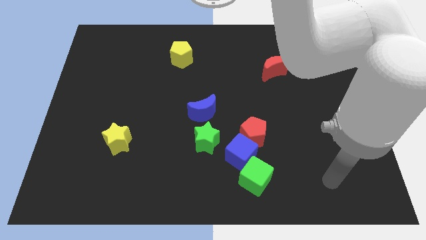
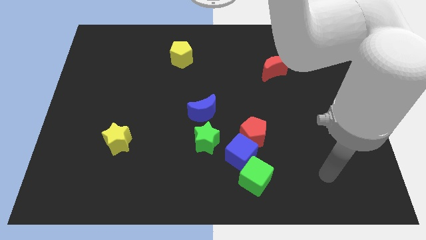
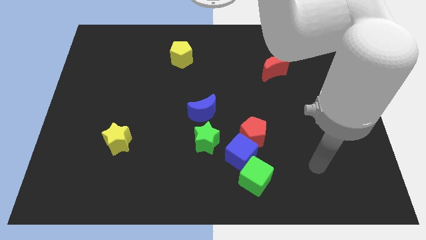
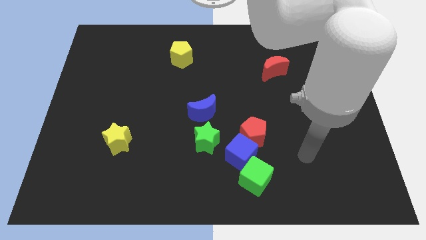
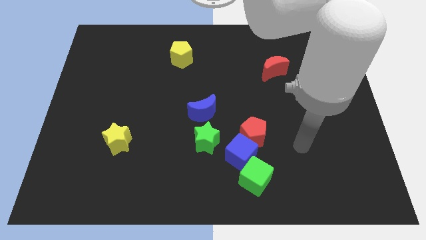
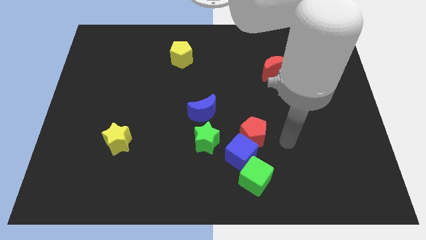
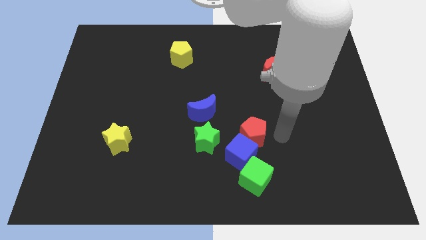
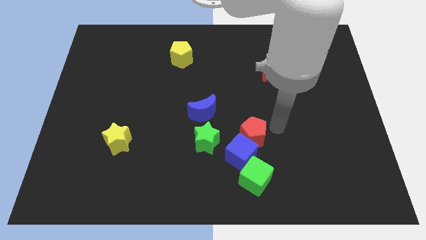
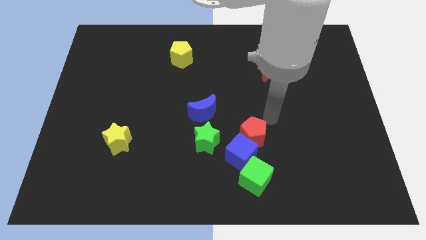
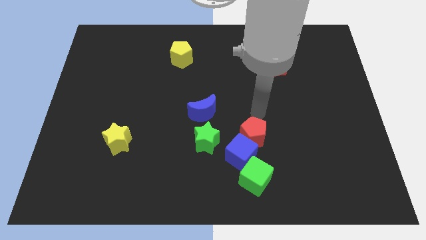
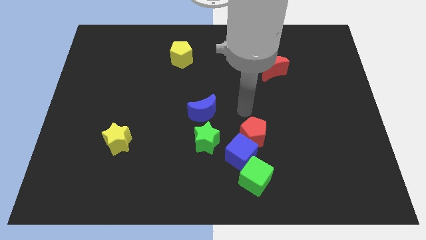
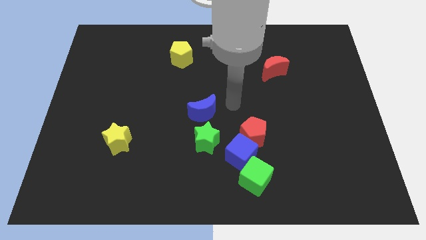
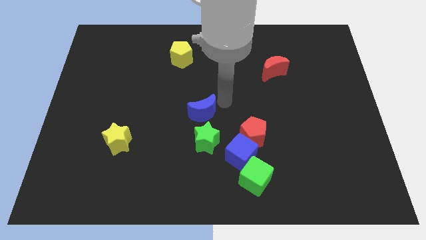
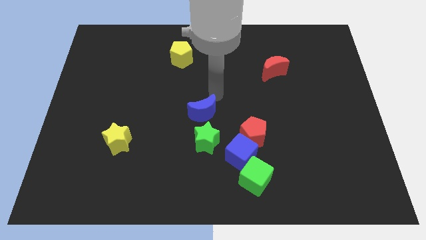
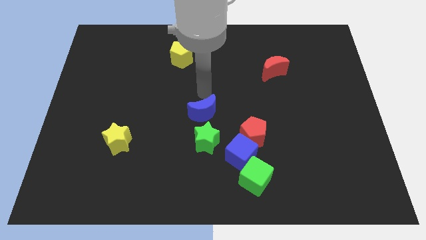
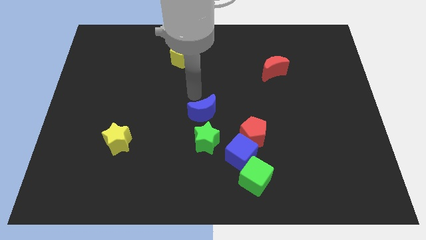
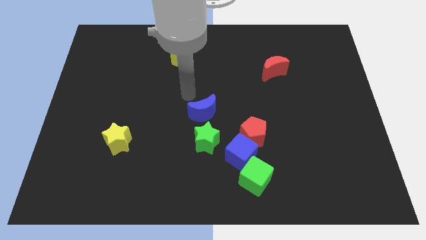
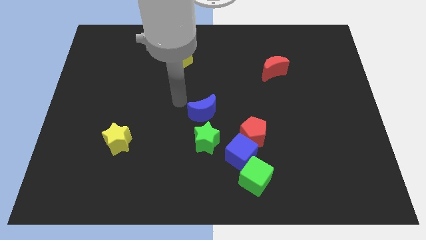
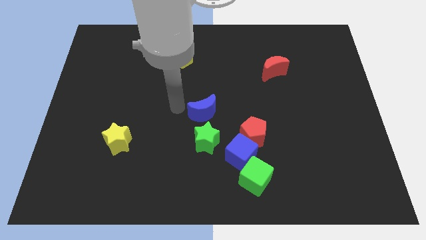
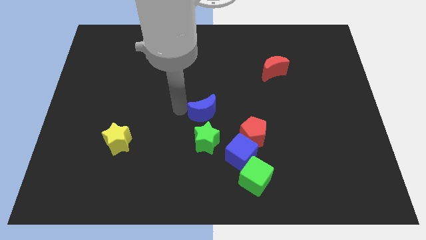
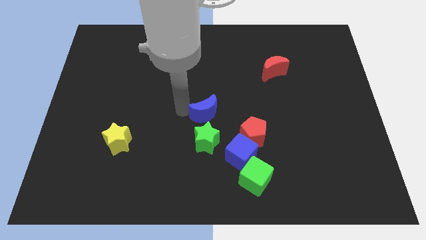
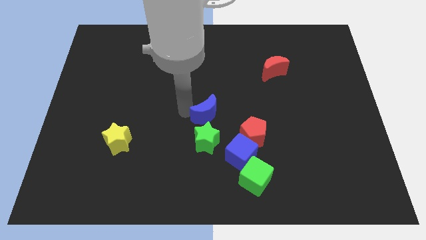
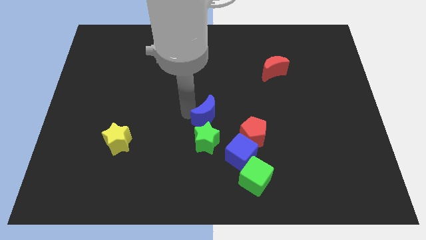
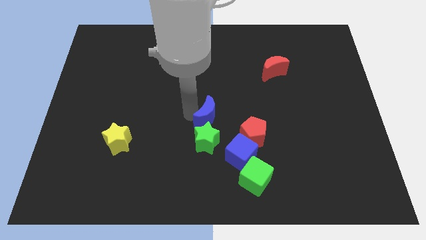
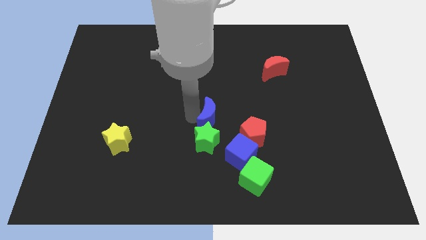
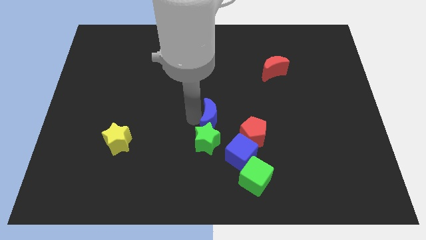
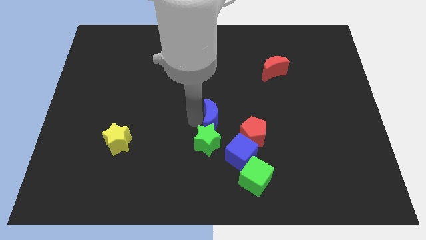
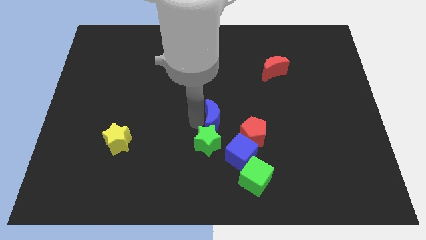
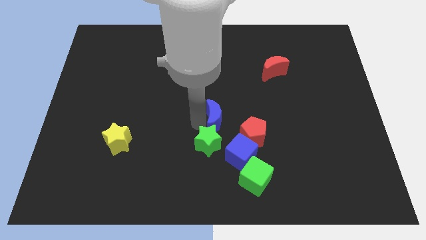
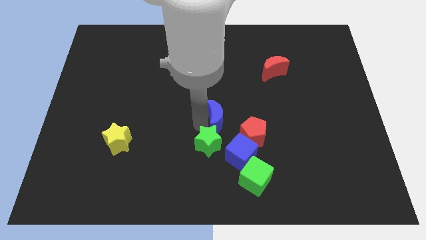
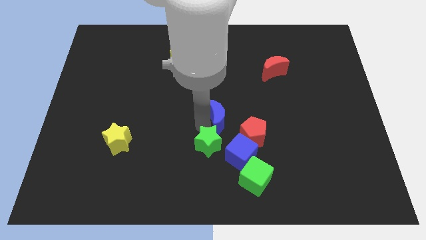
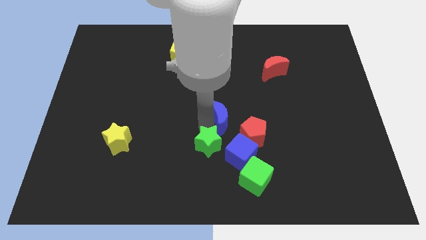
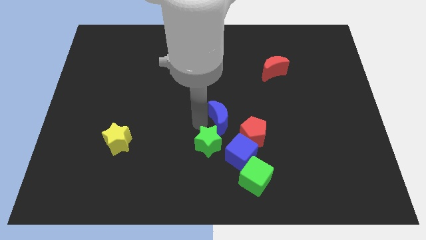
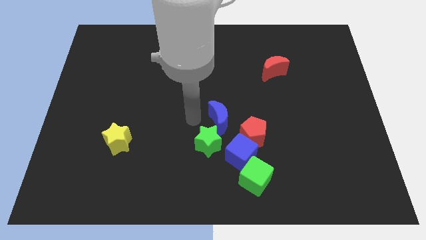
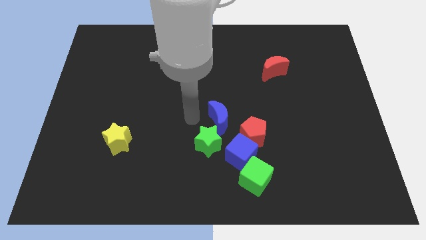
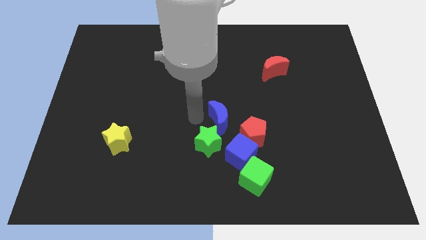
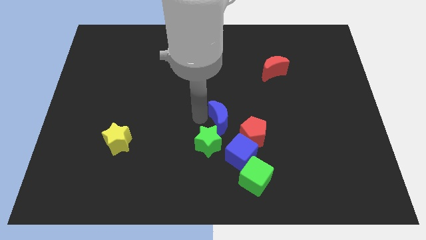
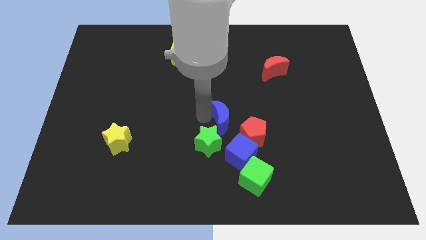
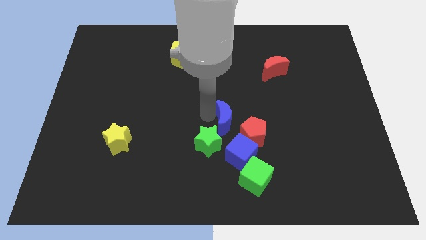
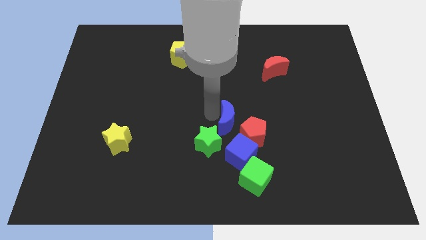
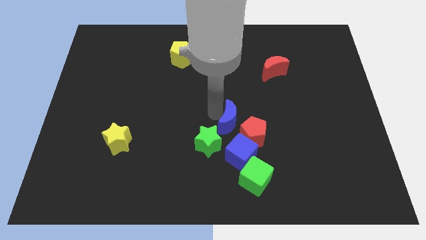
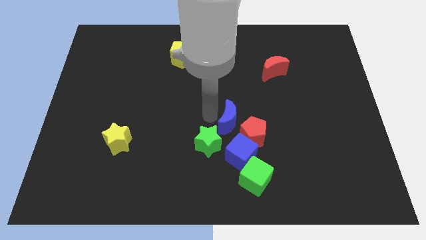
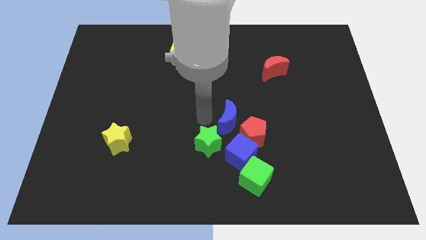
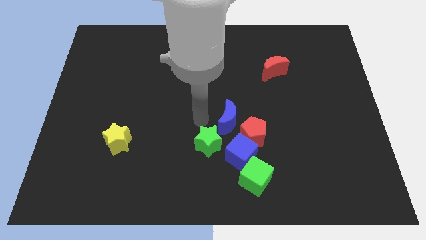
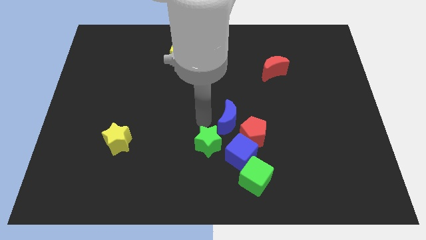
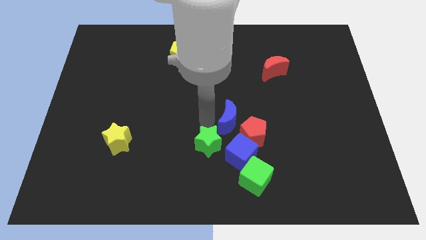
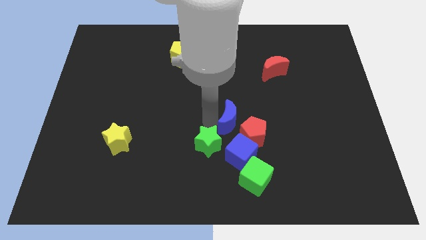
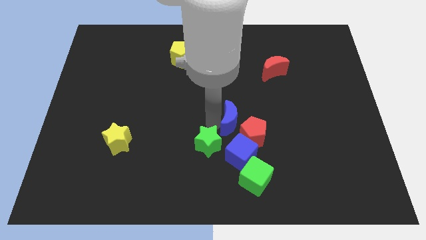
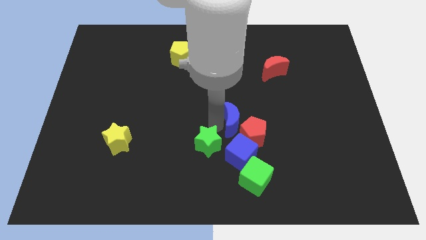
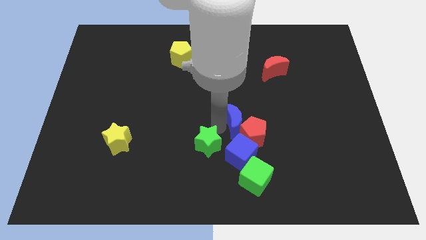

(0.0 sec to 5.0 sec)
push the blue moon a bit downwards and then to the right

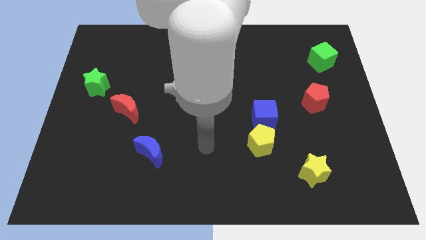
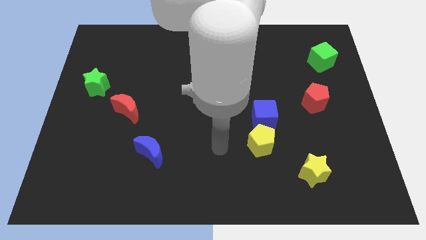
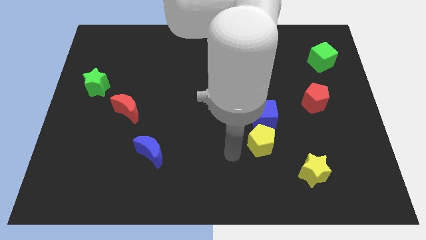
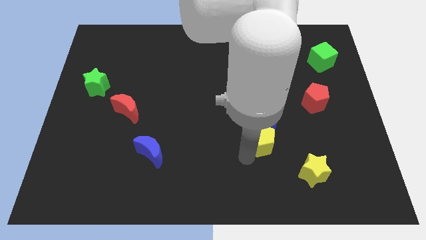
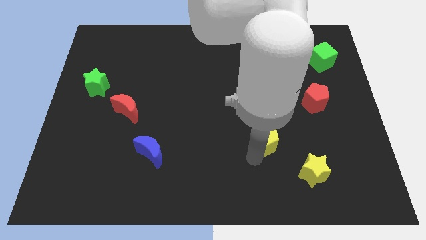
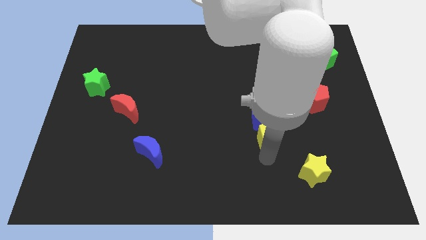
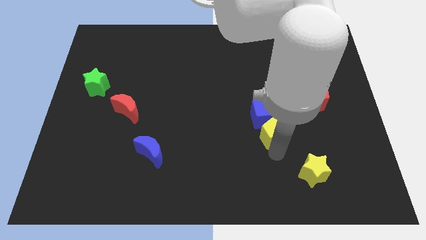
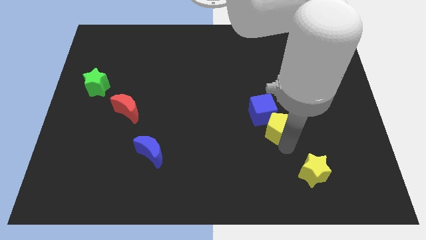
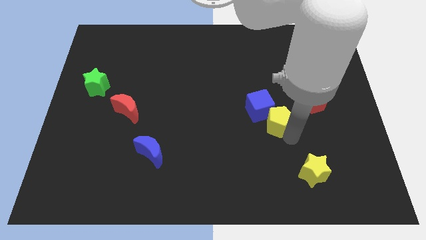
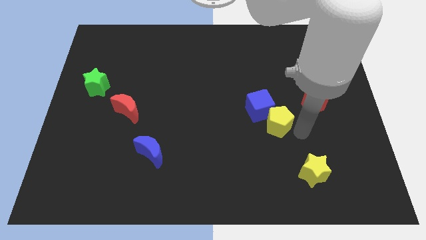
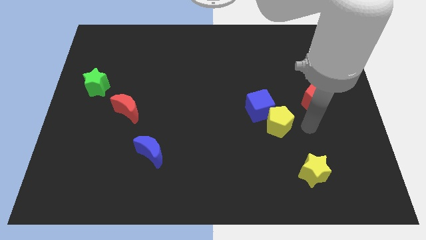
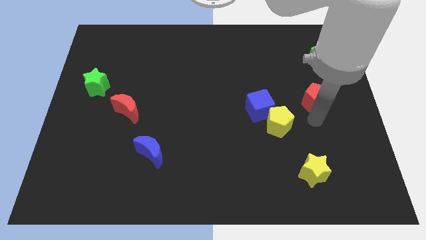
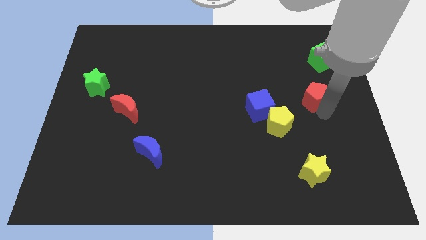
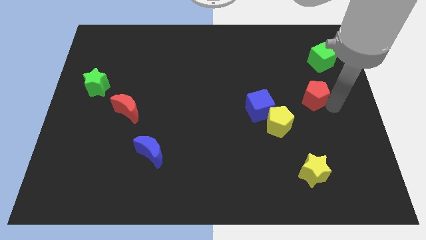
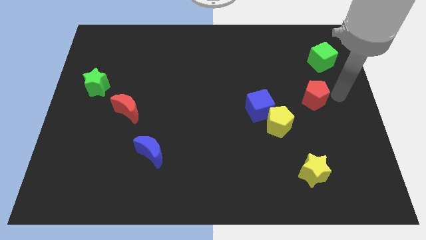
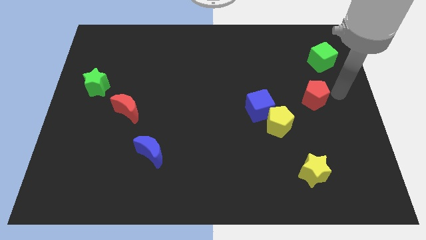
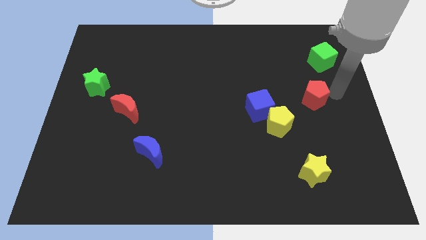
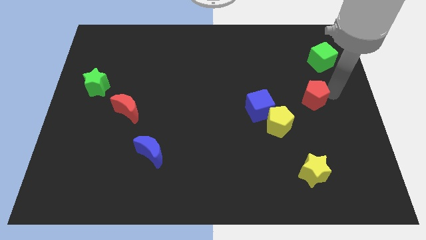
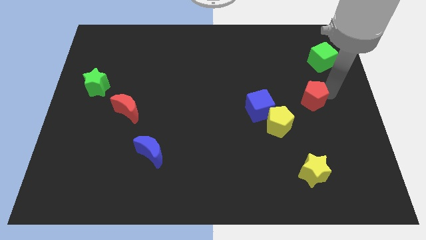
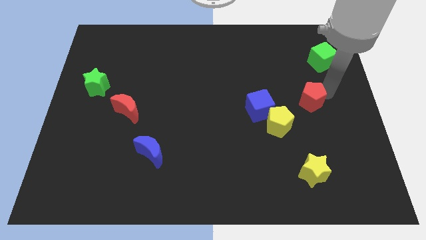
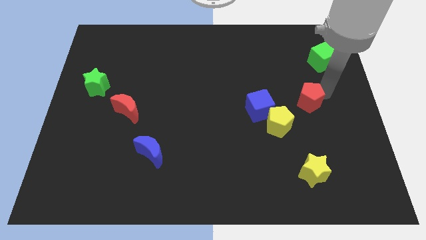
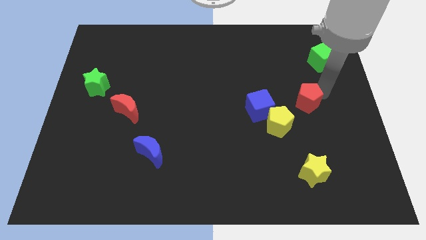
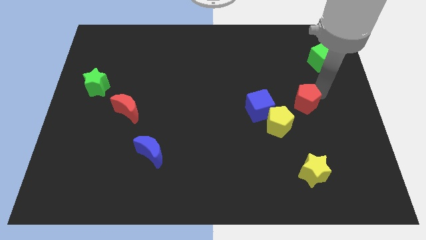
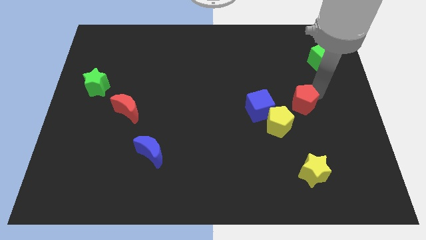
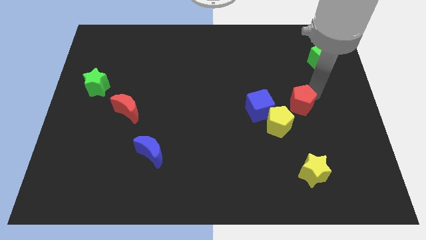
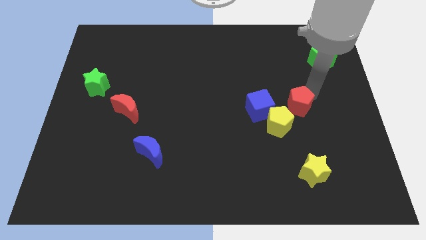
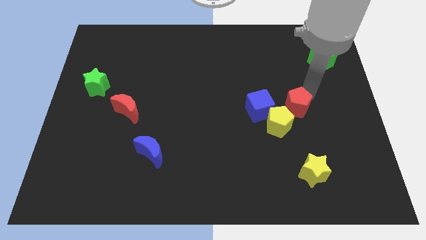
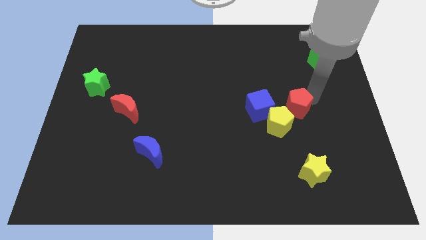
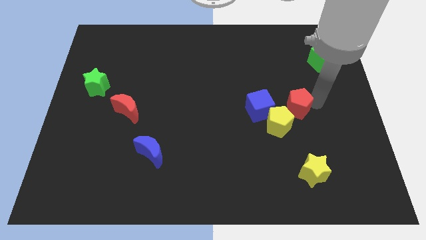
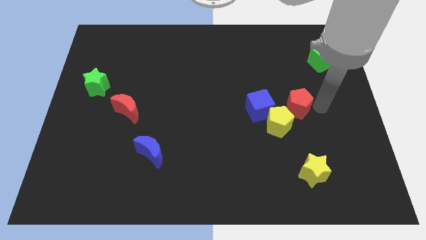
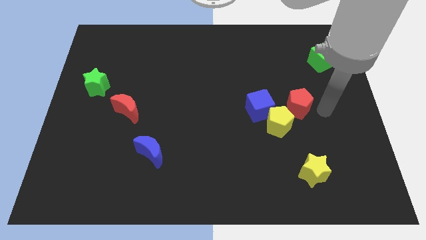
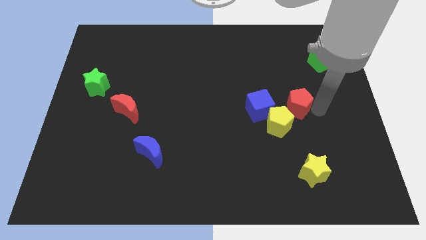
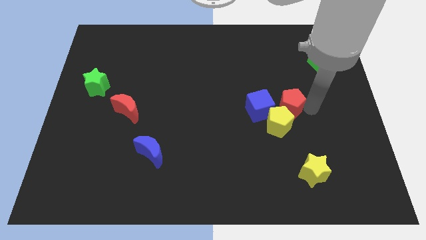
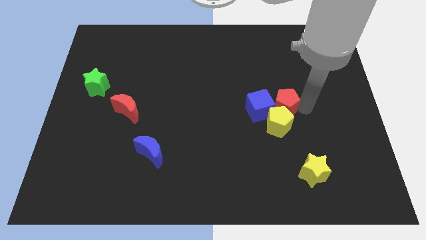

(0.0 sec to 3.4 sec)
slightly push the red pentagon to the left

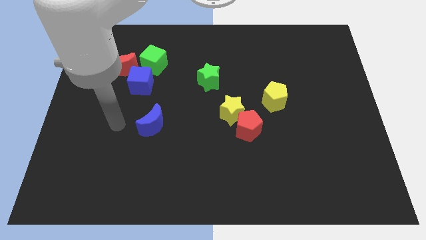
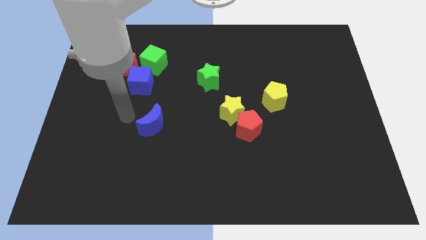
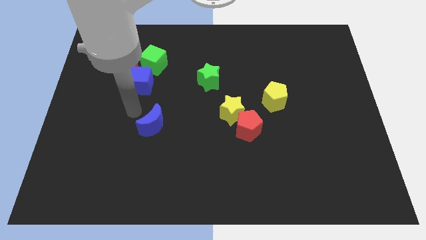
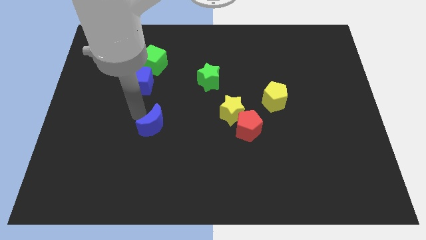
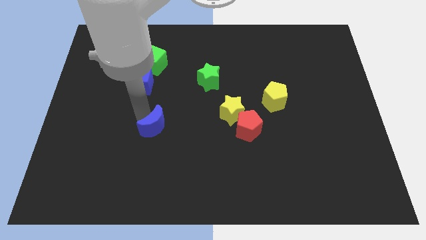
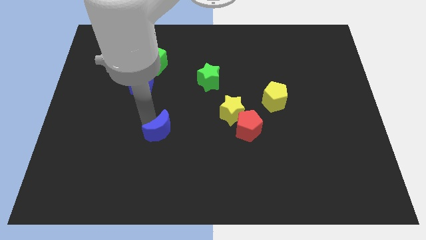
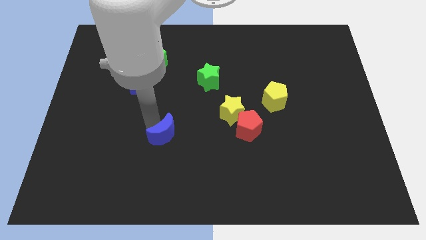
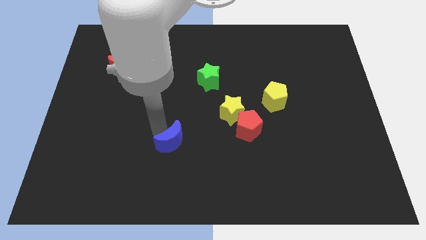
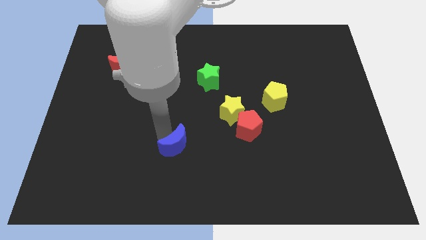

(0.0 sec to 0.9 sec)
slide the blue moon slightly downwards and then to the right
